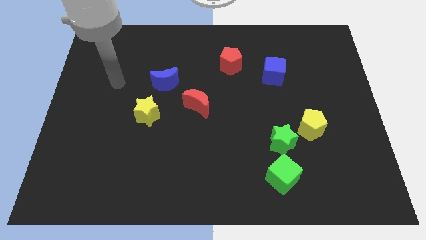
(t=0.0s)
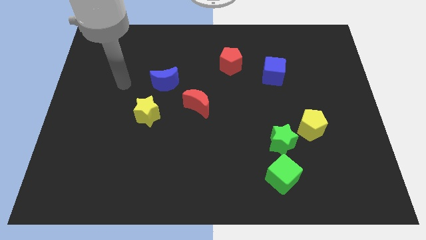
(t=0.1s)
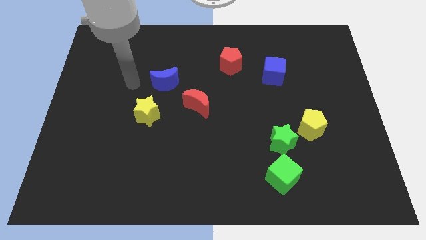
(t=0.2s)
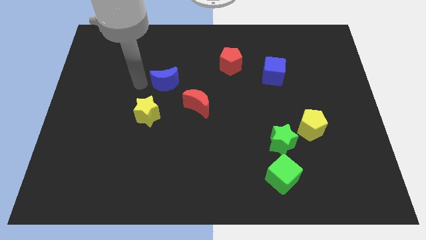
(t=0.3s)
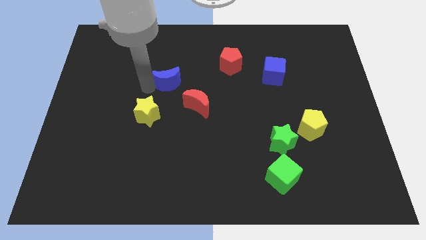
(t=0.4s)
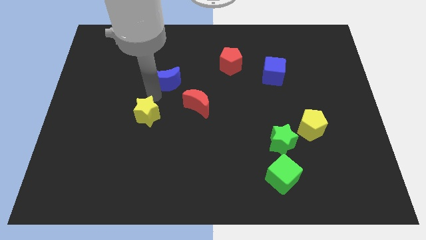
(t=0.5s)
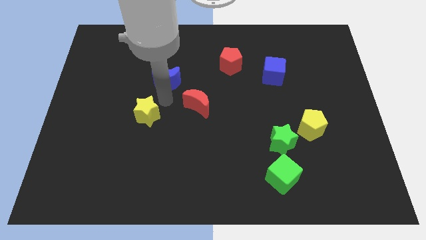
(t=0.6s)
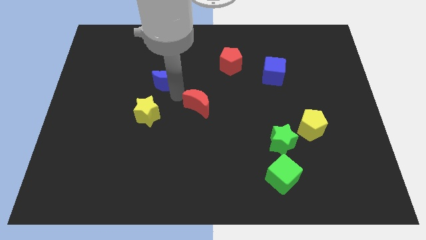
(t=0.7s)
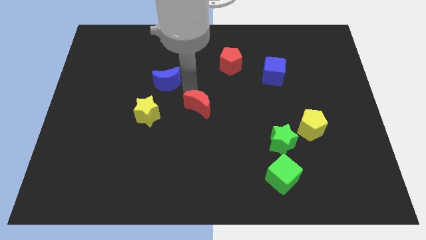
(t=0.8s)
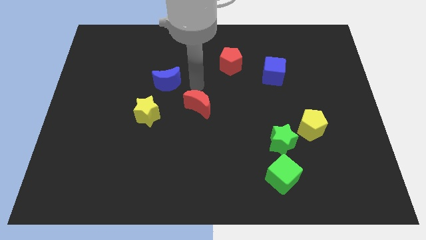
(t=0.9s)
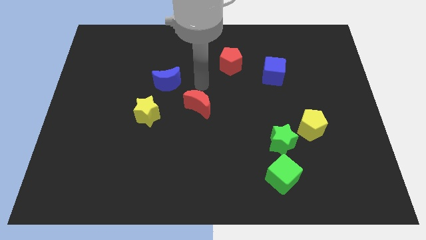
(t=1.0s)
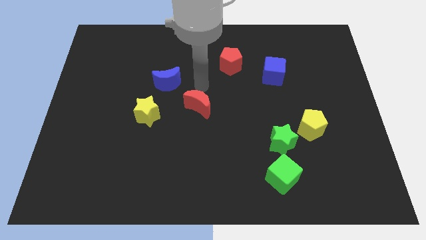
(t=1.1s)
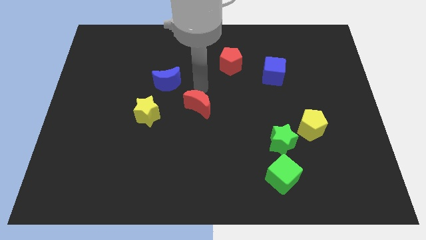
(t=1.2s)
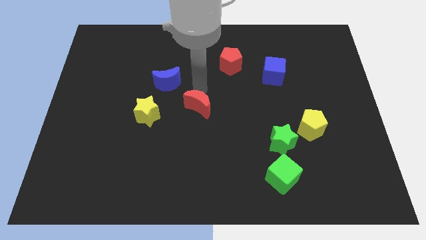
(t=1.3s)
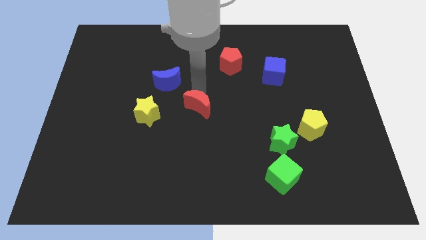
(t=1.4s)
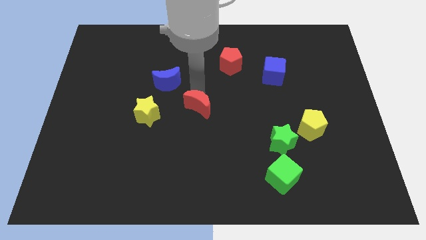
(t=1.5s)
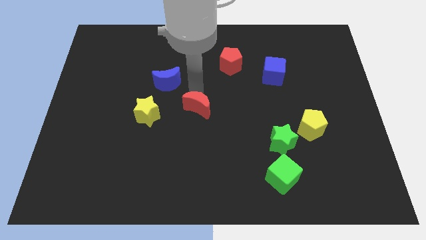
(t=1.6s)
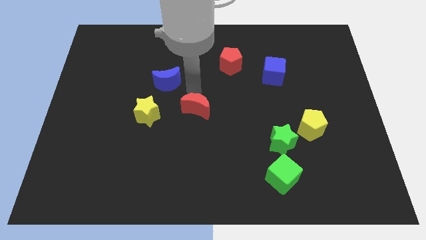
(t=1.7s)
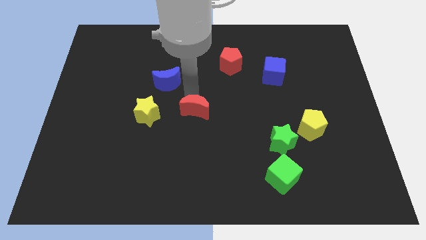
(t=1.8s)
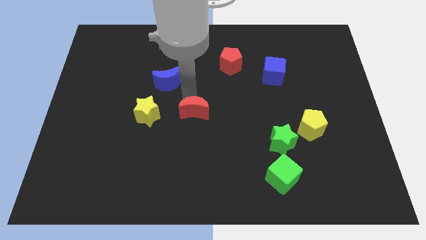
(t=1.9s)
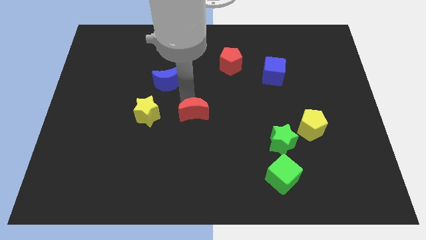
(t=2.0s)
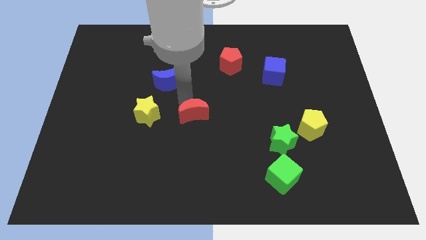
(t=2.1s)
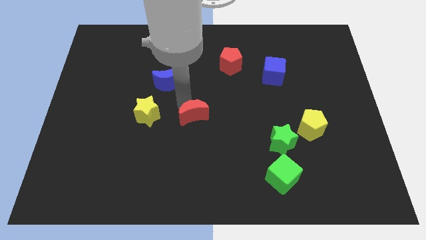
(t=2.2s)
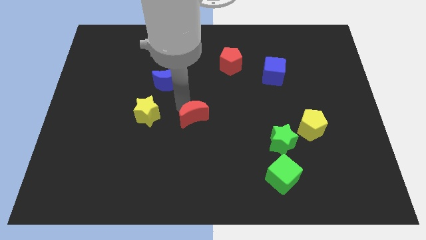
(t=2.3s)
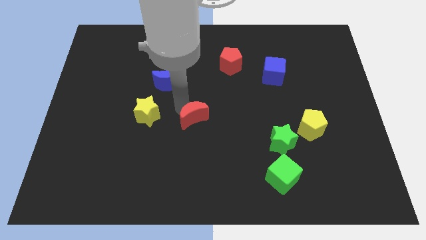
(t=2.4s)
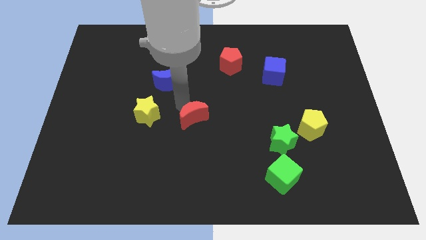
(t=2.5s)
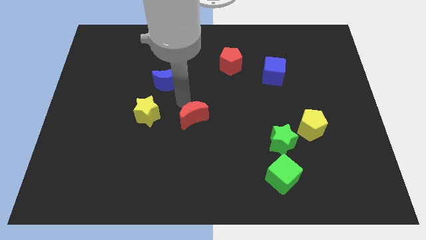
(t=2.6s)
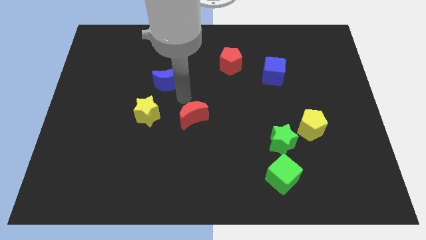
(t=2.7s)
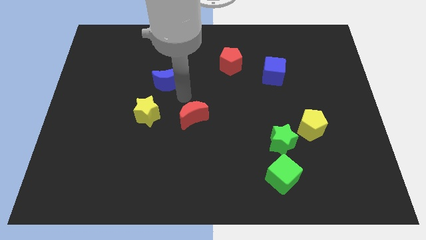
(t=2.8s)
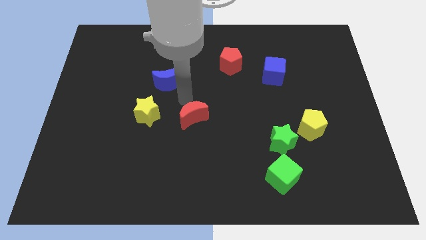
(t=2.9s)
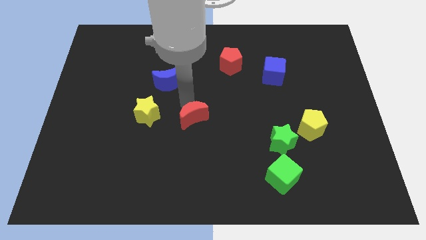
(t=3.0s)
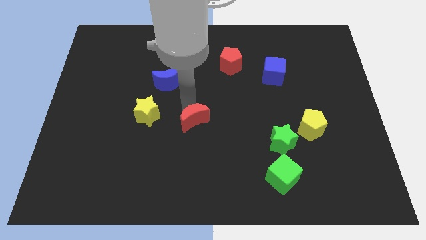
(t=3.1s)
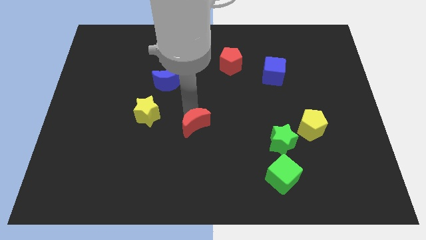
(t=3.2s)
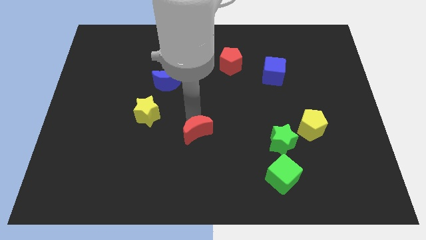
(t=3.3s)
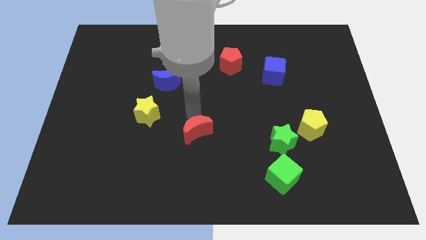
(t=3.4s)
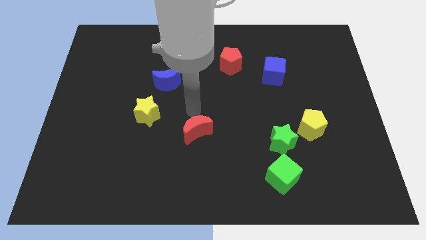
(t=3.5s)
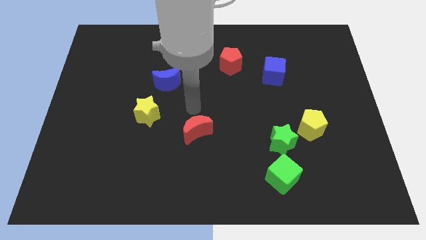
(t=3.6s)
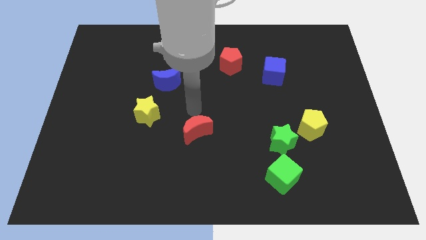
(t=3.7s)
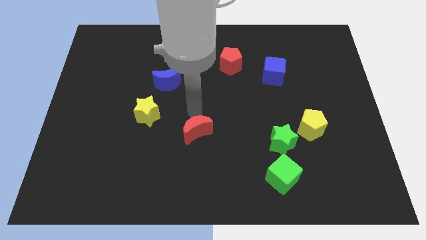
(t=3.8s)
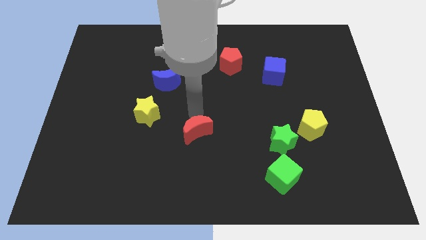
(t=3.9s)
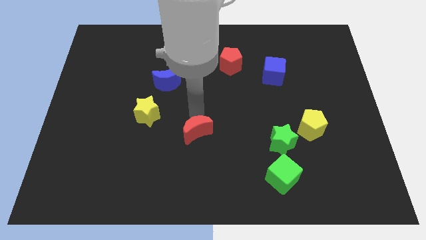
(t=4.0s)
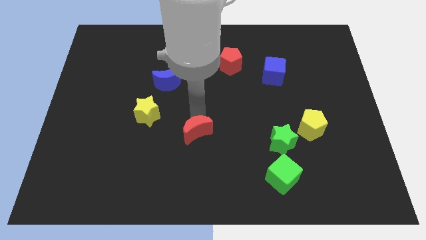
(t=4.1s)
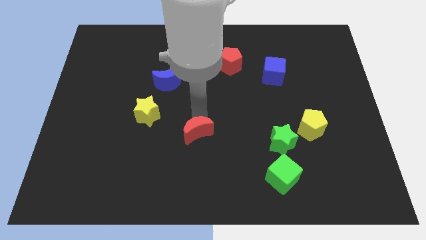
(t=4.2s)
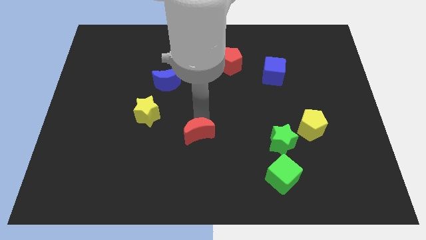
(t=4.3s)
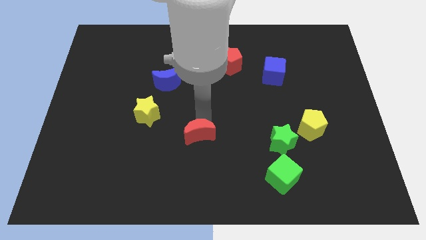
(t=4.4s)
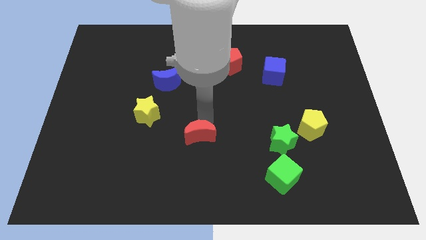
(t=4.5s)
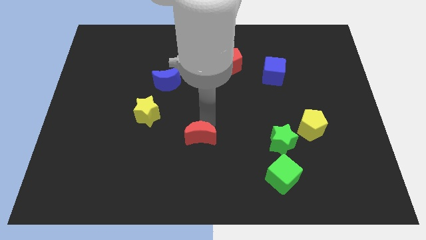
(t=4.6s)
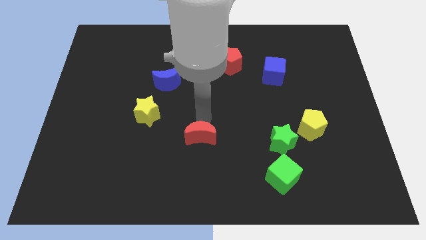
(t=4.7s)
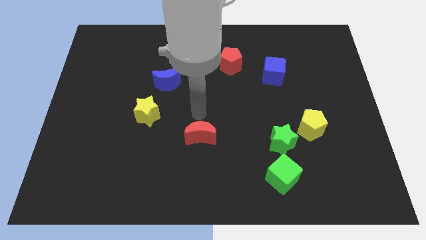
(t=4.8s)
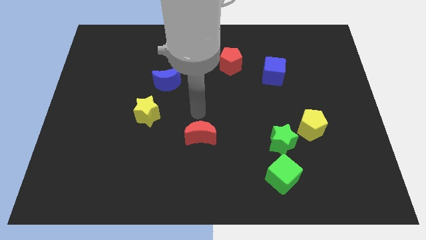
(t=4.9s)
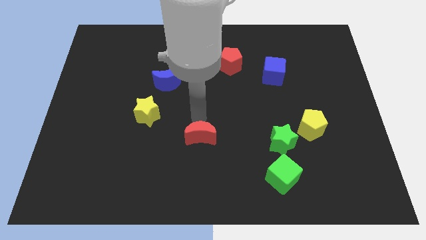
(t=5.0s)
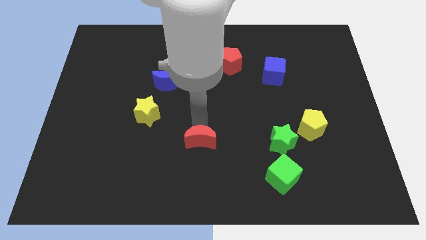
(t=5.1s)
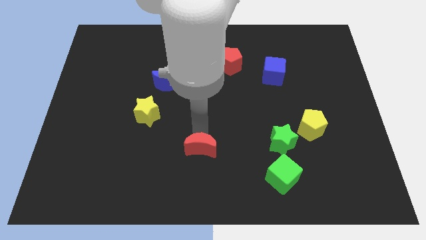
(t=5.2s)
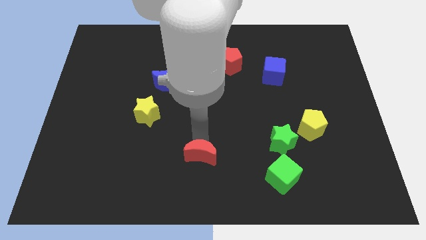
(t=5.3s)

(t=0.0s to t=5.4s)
put the red moon to the bottom
